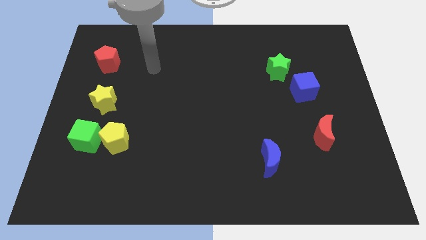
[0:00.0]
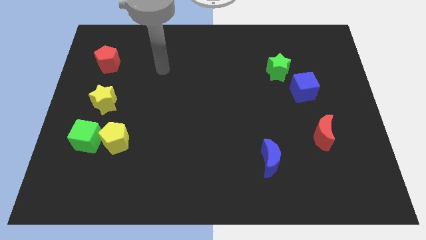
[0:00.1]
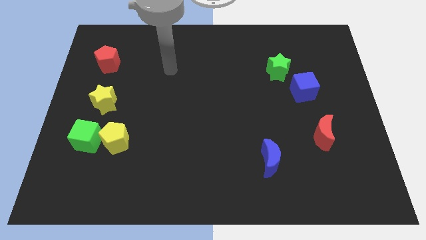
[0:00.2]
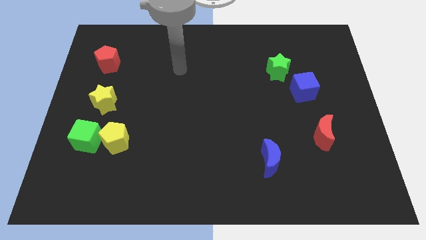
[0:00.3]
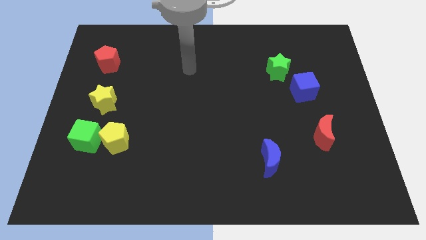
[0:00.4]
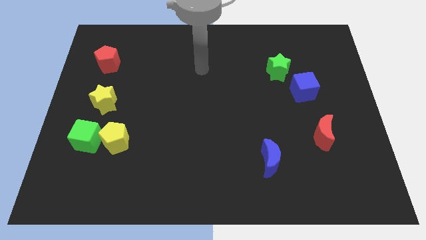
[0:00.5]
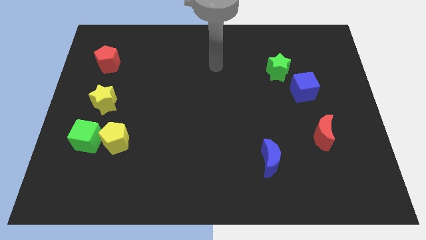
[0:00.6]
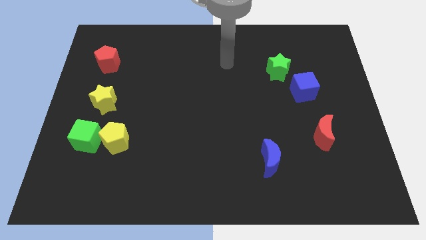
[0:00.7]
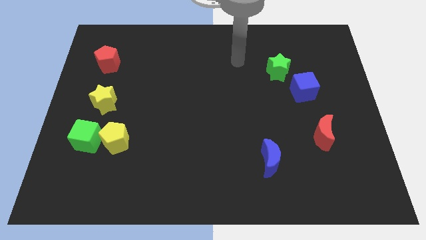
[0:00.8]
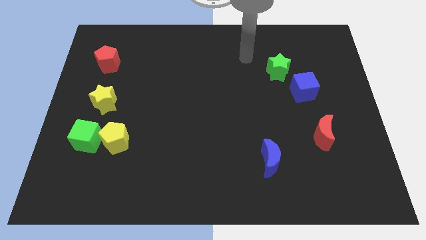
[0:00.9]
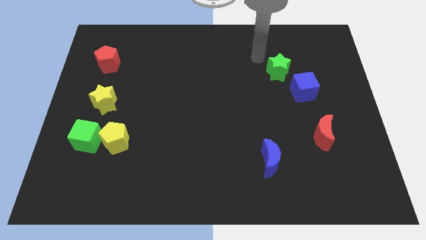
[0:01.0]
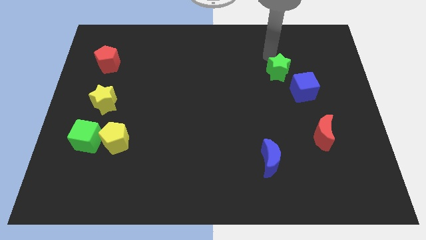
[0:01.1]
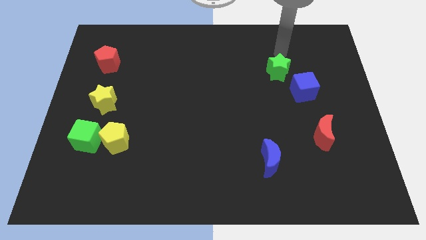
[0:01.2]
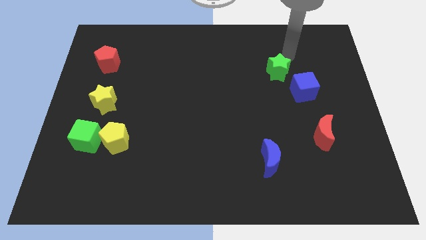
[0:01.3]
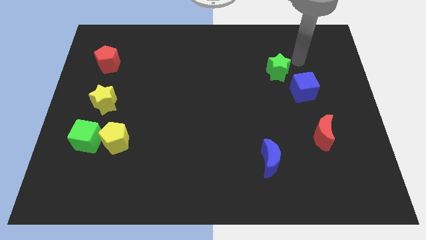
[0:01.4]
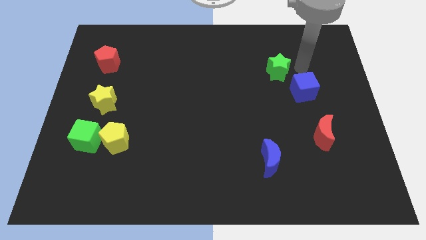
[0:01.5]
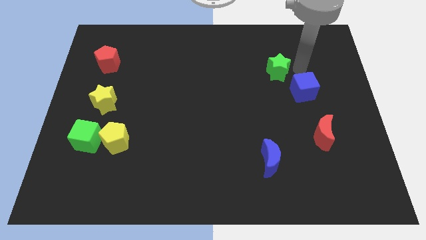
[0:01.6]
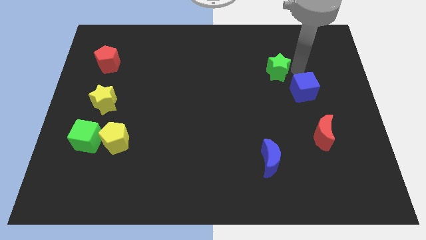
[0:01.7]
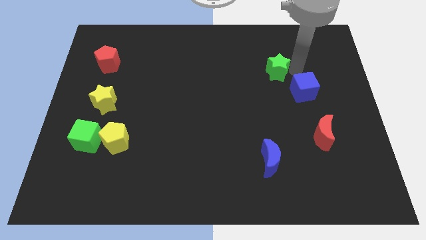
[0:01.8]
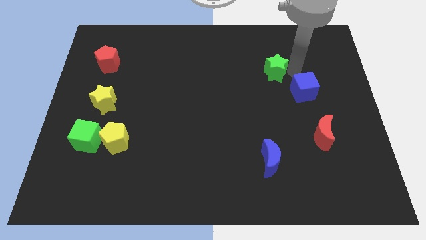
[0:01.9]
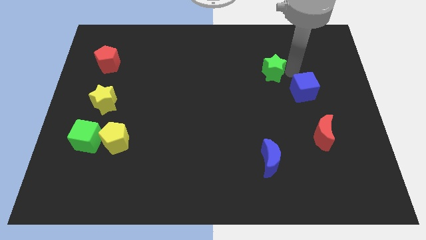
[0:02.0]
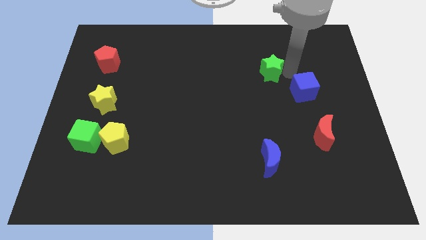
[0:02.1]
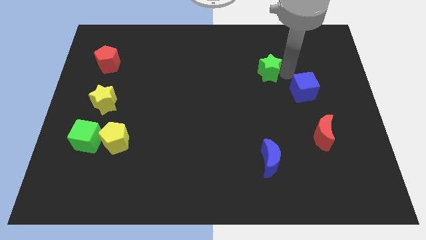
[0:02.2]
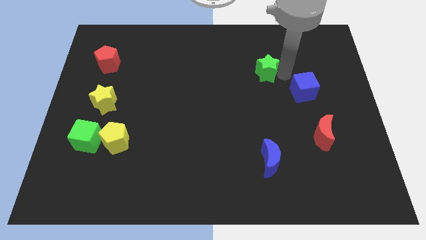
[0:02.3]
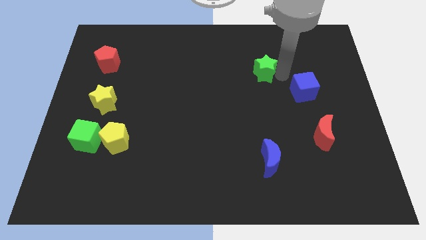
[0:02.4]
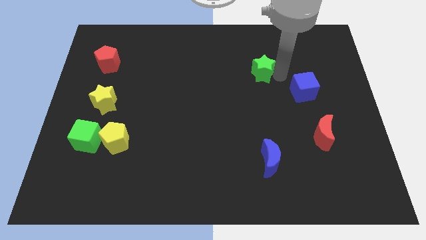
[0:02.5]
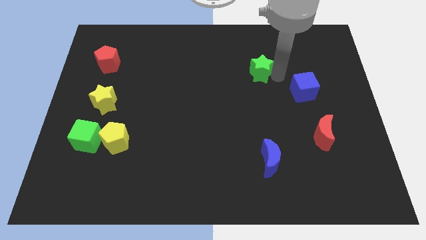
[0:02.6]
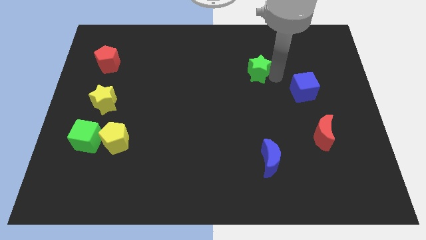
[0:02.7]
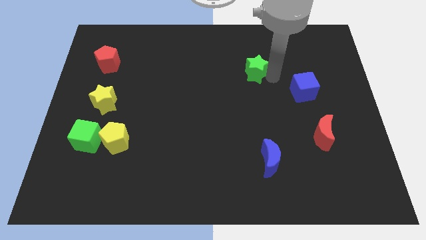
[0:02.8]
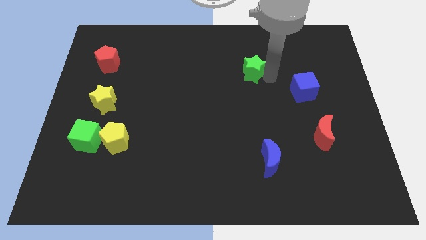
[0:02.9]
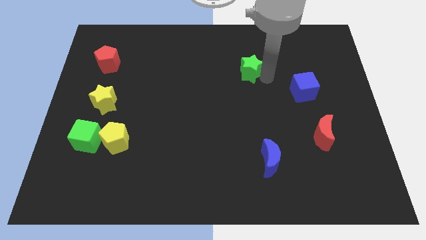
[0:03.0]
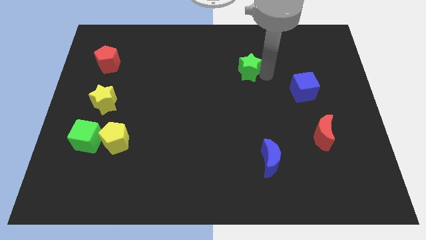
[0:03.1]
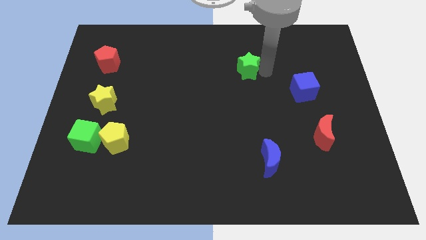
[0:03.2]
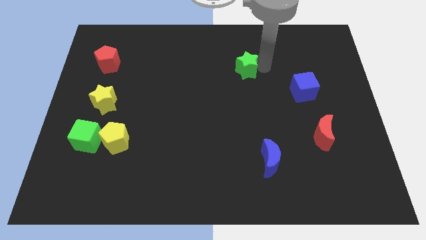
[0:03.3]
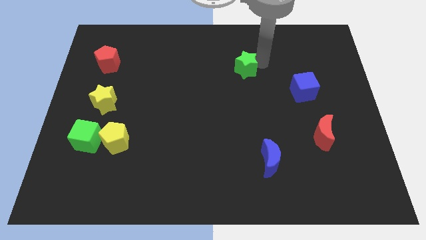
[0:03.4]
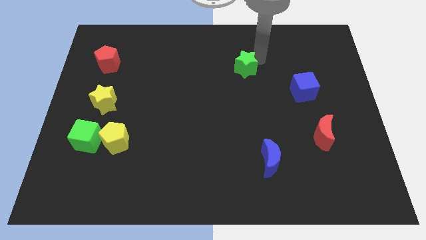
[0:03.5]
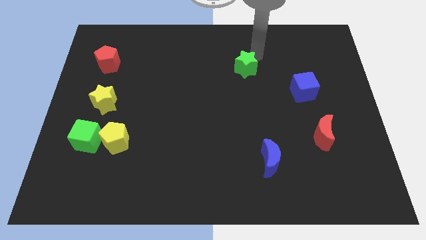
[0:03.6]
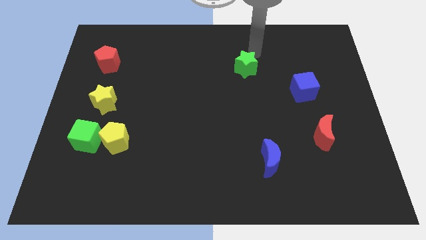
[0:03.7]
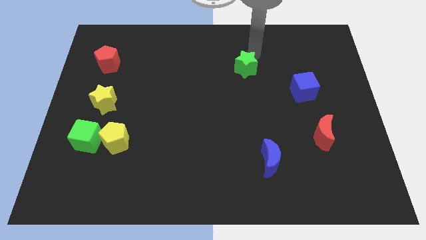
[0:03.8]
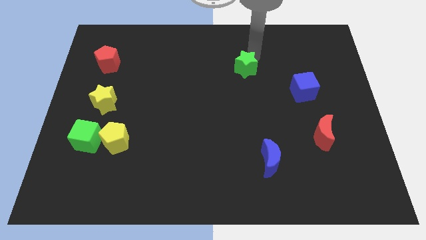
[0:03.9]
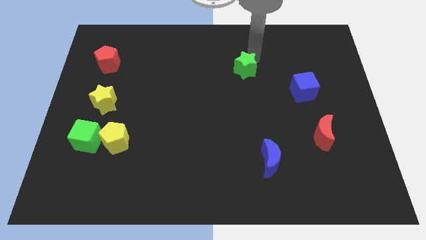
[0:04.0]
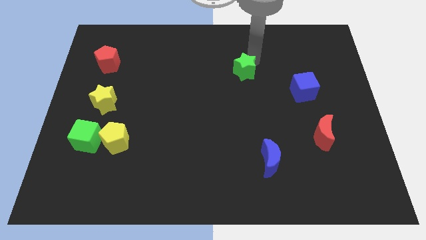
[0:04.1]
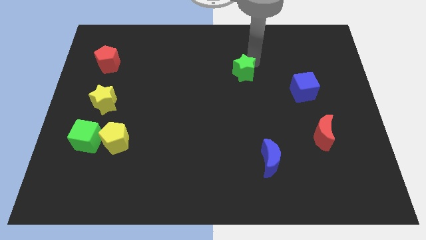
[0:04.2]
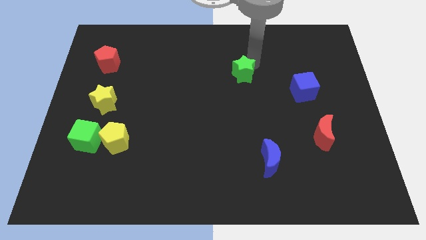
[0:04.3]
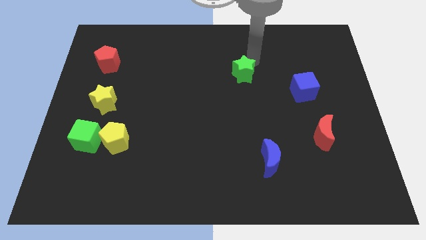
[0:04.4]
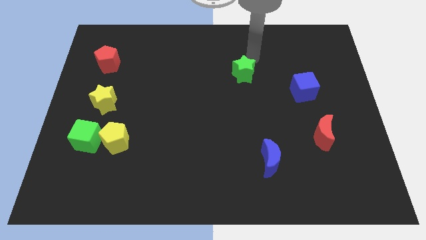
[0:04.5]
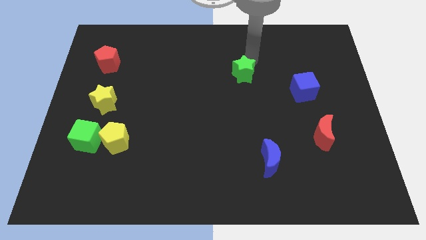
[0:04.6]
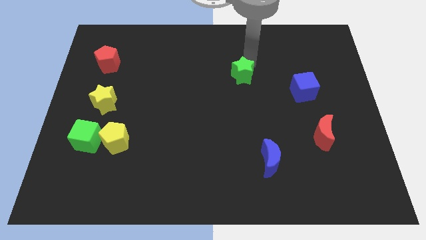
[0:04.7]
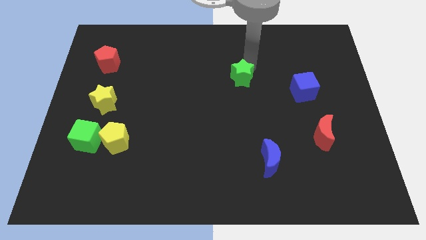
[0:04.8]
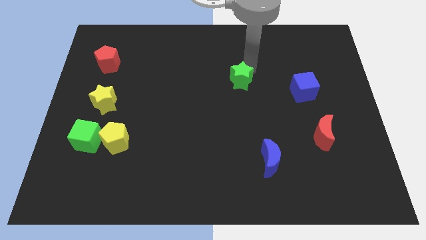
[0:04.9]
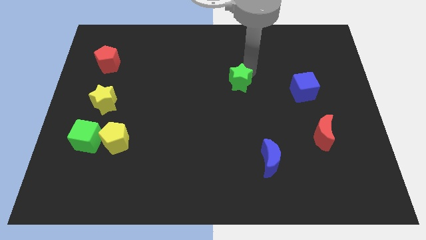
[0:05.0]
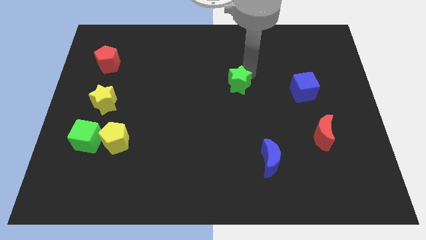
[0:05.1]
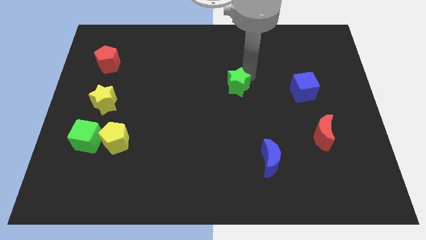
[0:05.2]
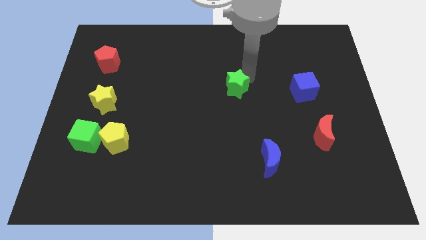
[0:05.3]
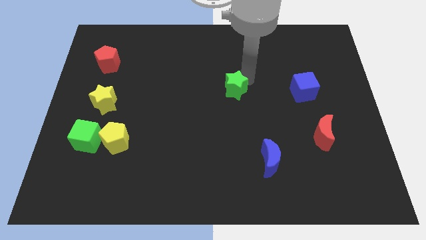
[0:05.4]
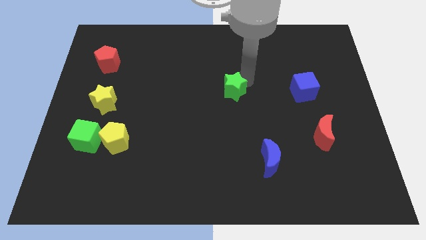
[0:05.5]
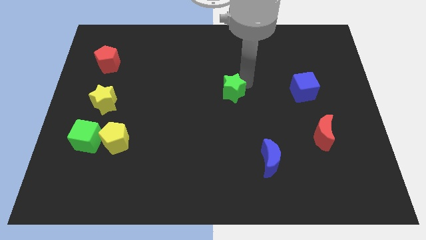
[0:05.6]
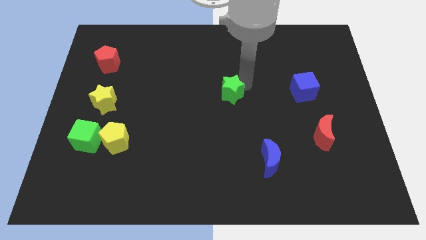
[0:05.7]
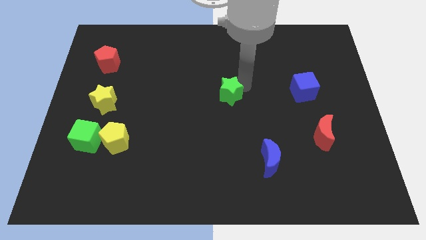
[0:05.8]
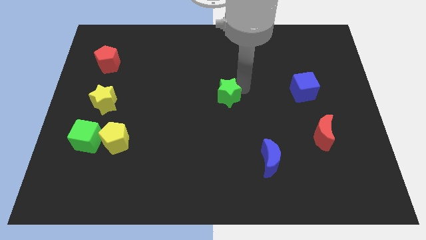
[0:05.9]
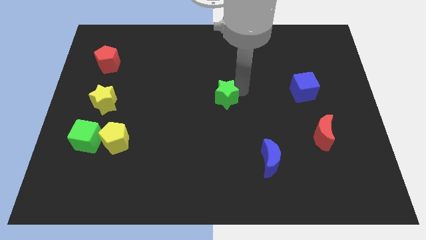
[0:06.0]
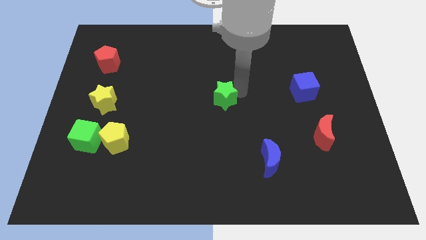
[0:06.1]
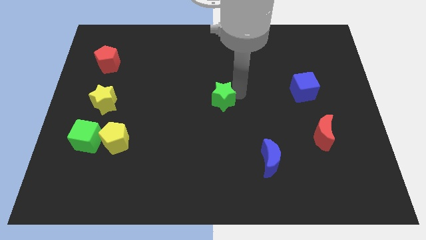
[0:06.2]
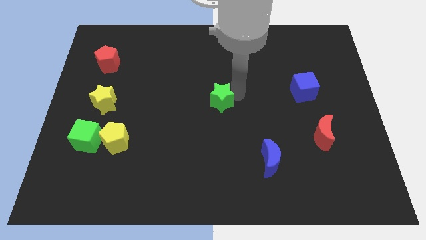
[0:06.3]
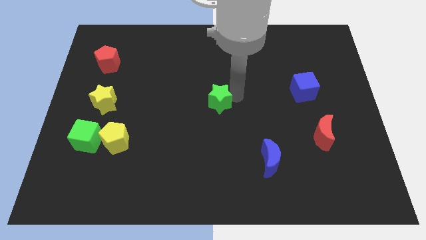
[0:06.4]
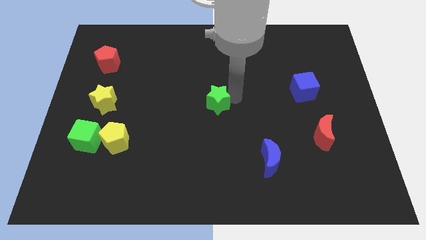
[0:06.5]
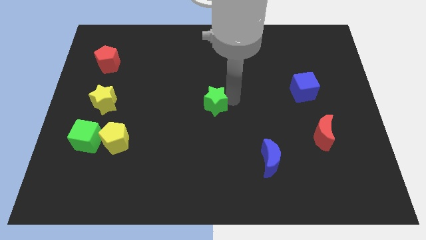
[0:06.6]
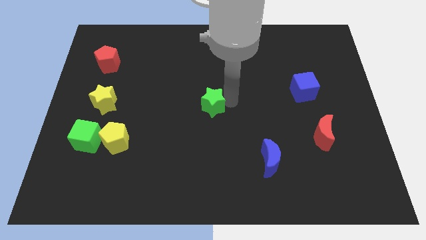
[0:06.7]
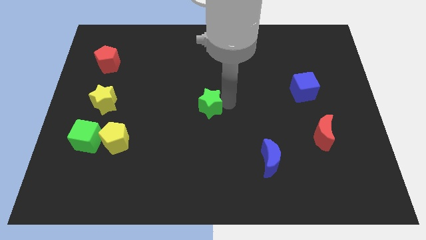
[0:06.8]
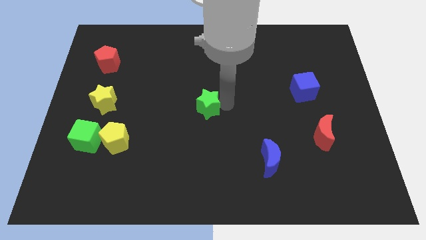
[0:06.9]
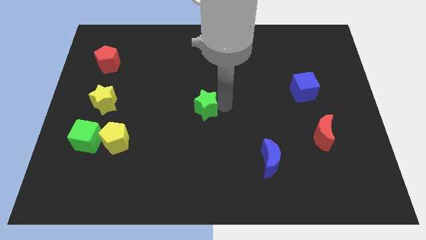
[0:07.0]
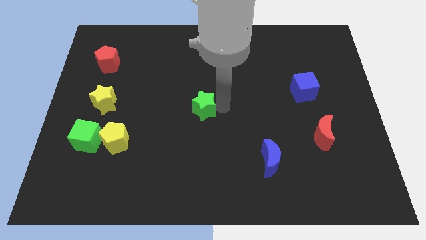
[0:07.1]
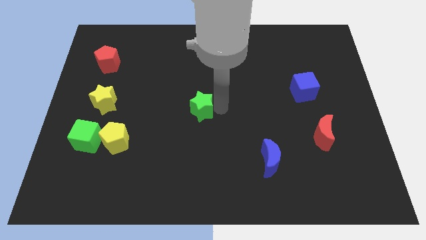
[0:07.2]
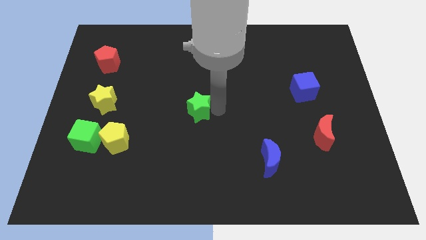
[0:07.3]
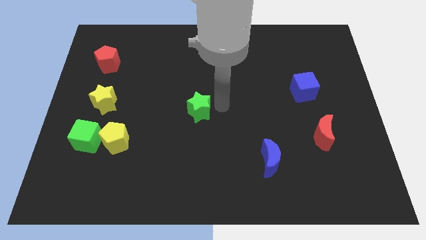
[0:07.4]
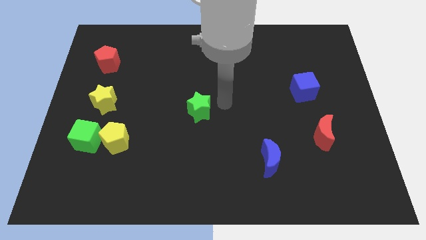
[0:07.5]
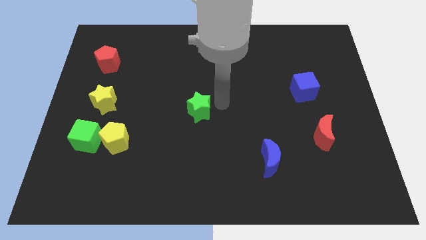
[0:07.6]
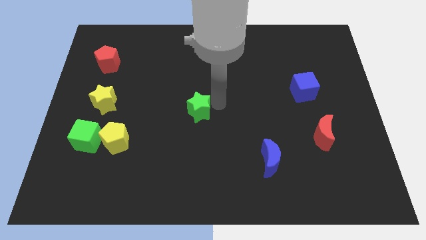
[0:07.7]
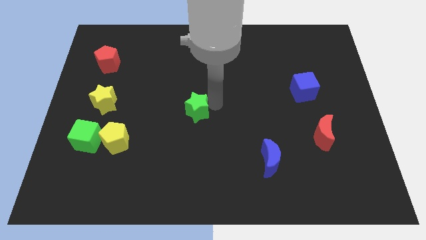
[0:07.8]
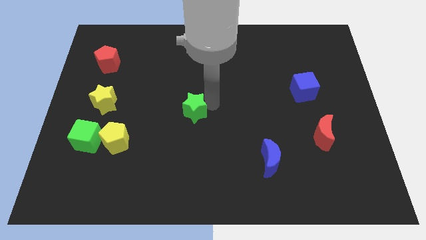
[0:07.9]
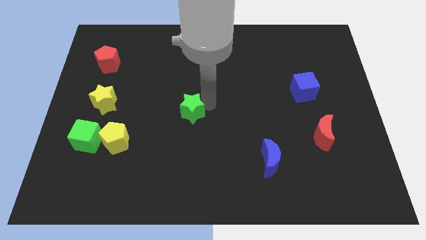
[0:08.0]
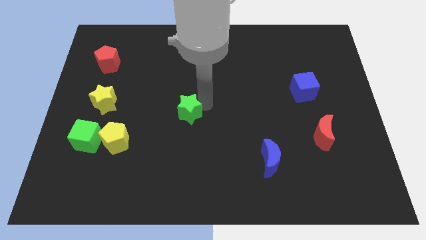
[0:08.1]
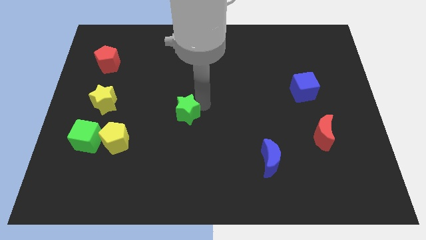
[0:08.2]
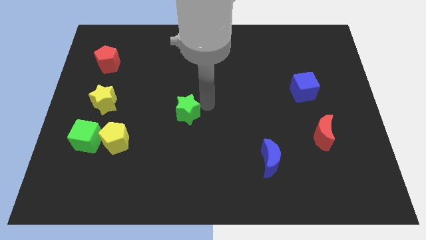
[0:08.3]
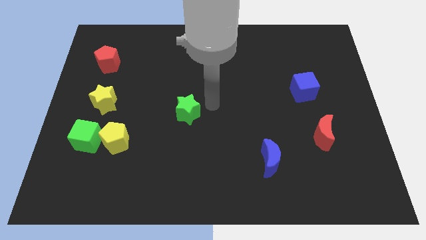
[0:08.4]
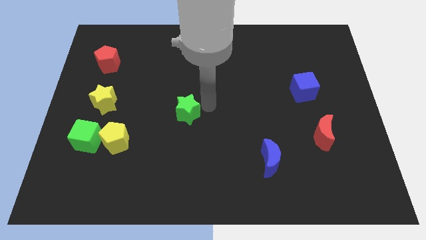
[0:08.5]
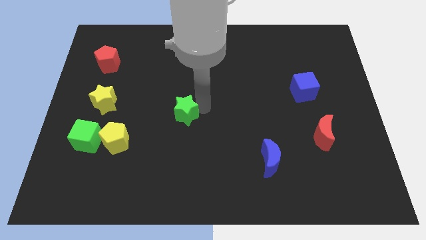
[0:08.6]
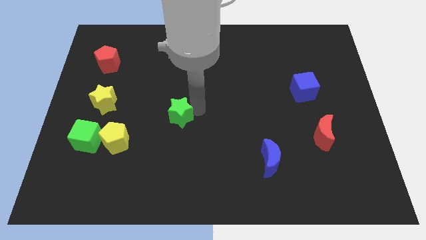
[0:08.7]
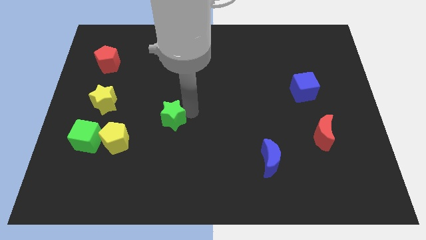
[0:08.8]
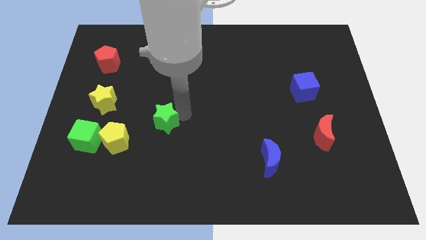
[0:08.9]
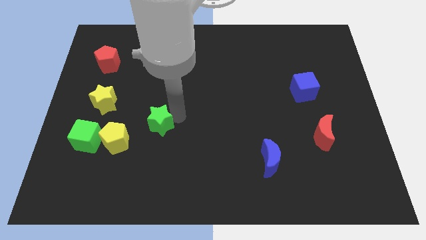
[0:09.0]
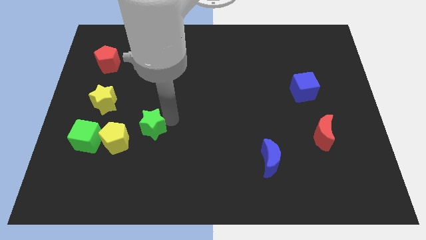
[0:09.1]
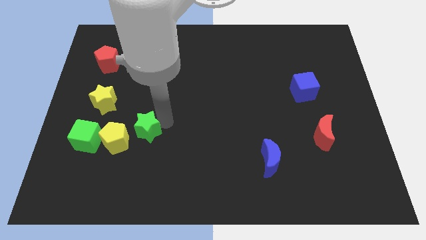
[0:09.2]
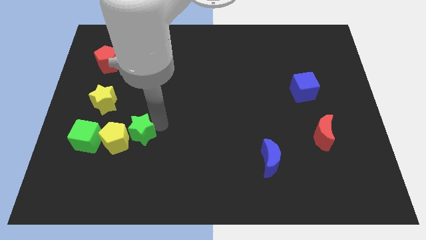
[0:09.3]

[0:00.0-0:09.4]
move the green star close to the yellow pentagon
